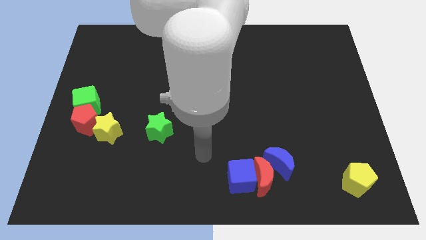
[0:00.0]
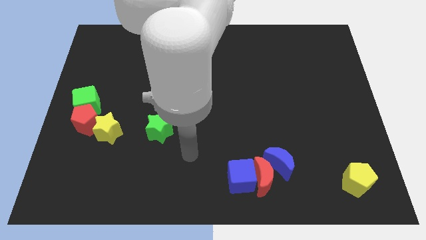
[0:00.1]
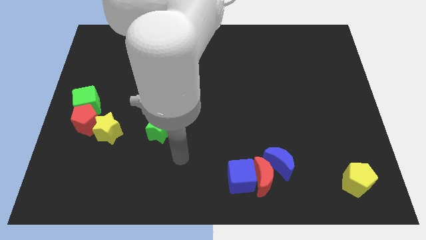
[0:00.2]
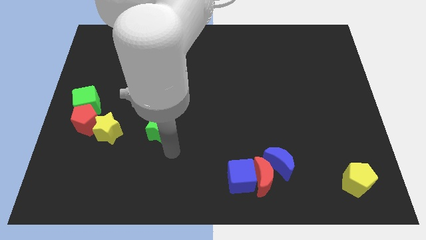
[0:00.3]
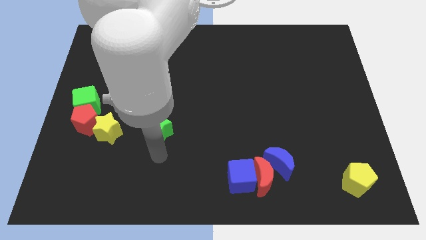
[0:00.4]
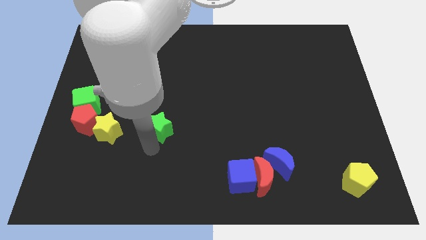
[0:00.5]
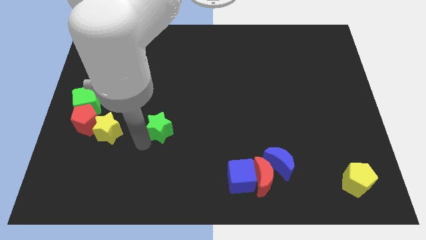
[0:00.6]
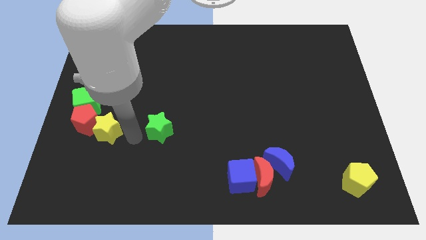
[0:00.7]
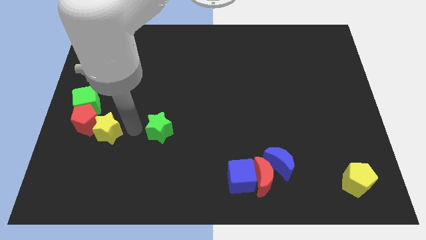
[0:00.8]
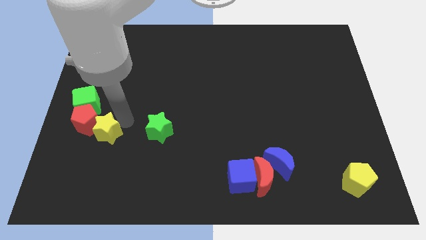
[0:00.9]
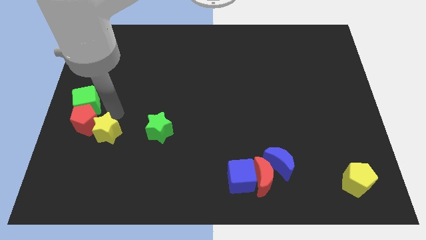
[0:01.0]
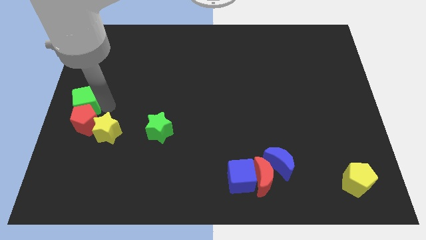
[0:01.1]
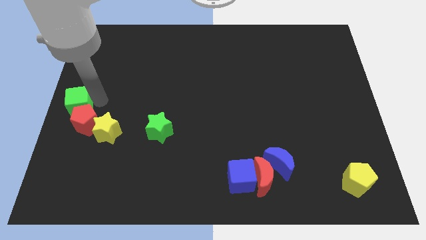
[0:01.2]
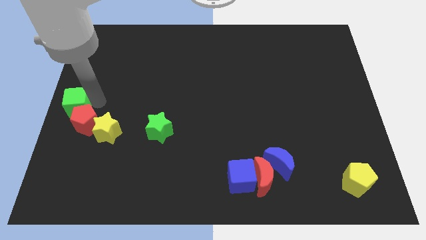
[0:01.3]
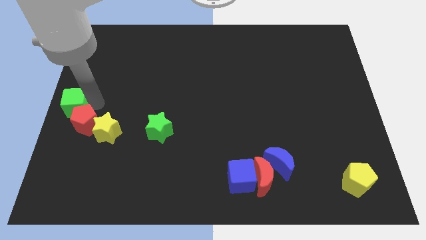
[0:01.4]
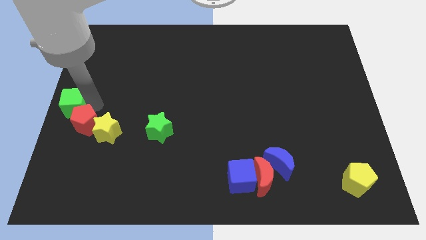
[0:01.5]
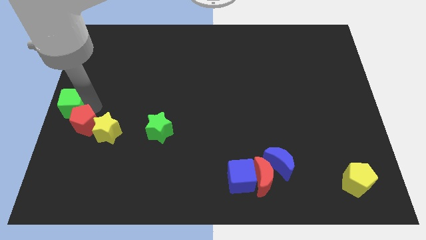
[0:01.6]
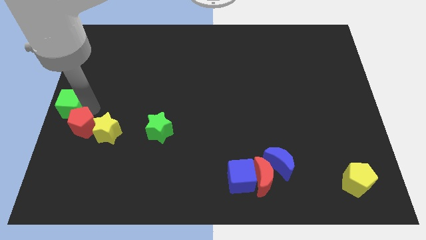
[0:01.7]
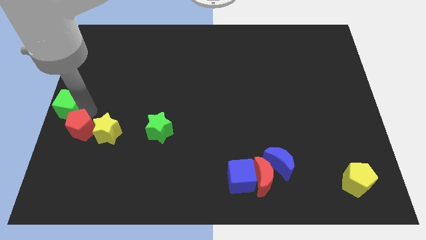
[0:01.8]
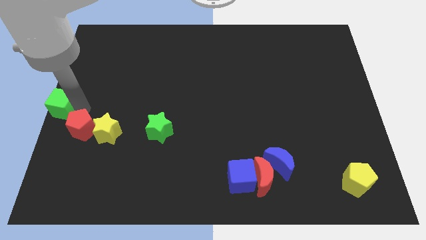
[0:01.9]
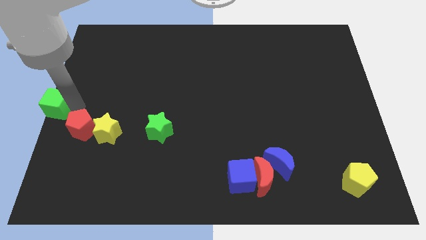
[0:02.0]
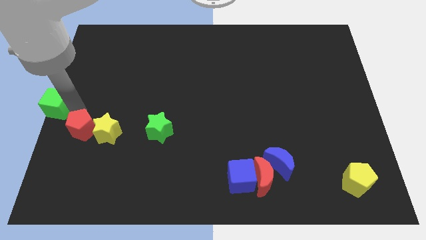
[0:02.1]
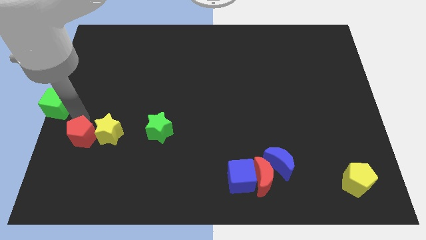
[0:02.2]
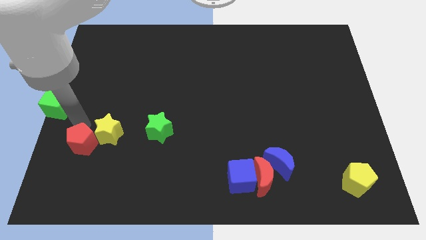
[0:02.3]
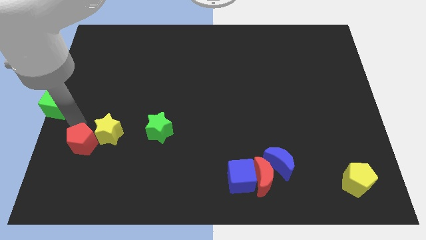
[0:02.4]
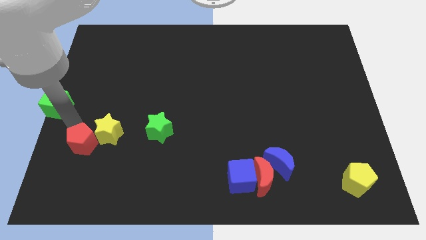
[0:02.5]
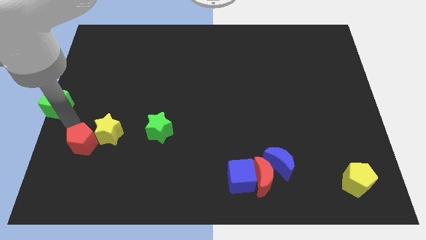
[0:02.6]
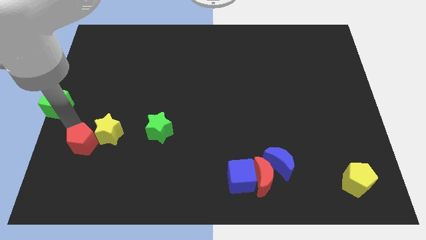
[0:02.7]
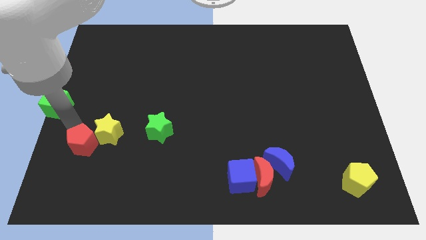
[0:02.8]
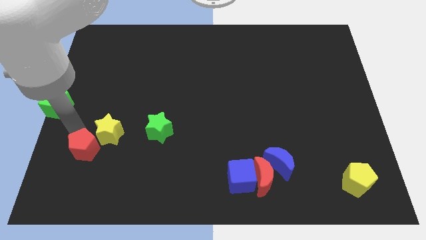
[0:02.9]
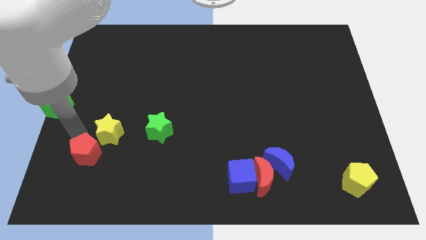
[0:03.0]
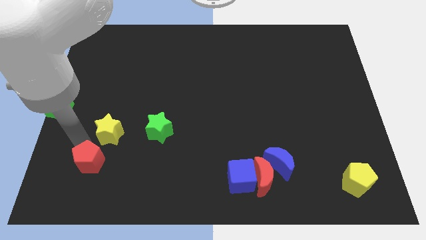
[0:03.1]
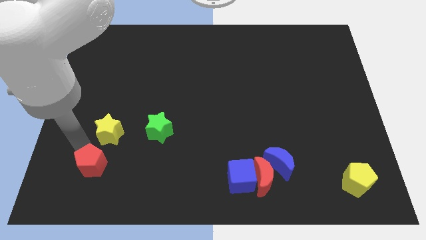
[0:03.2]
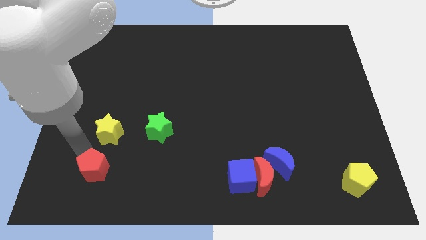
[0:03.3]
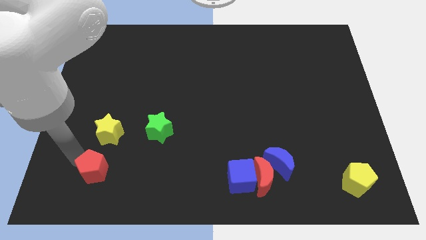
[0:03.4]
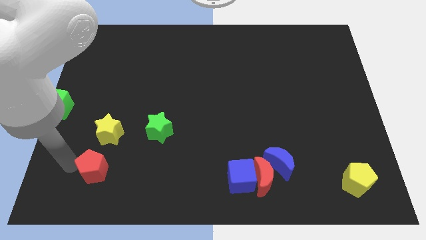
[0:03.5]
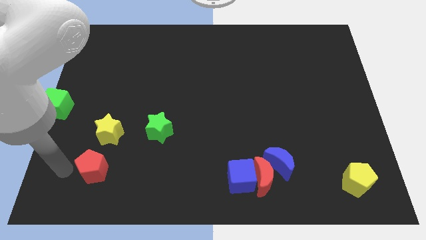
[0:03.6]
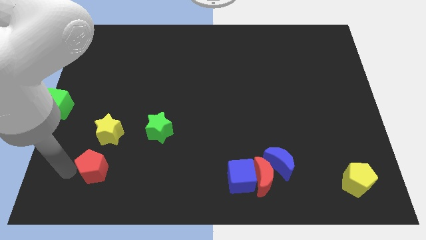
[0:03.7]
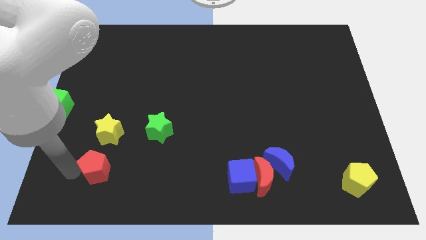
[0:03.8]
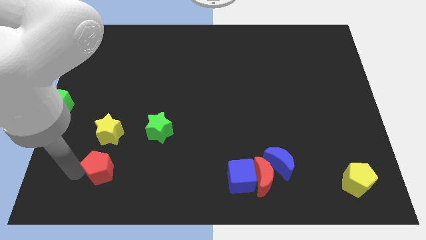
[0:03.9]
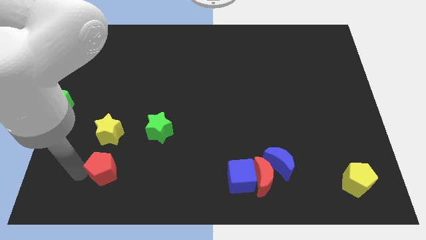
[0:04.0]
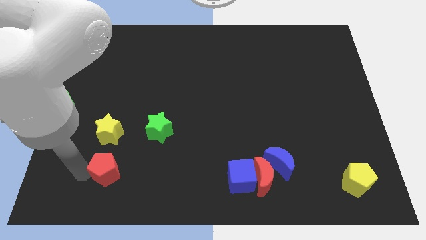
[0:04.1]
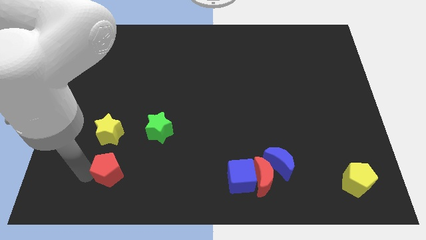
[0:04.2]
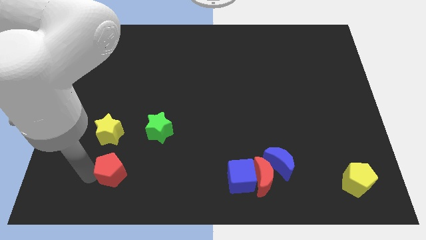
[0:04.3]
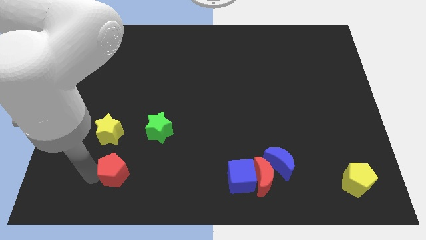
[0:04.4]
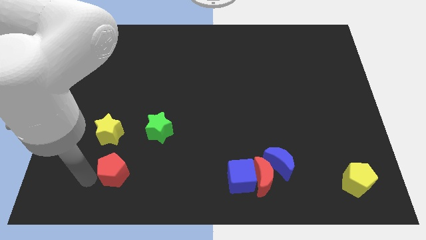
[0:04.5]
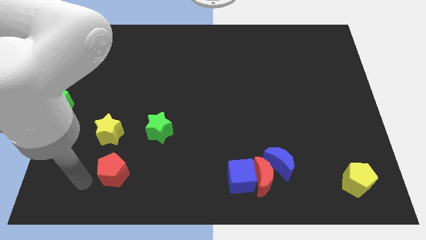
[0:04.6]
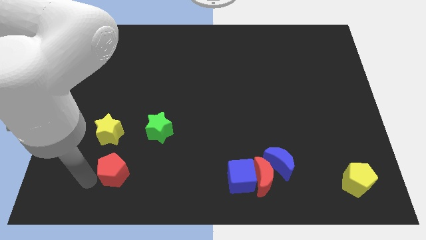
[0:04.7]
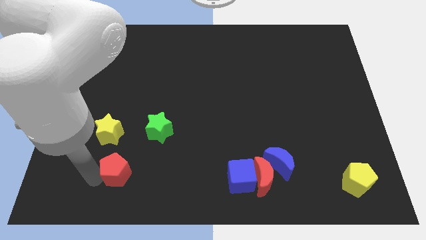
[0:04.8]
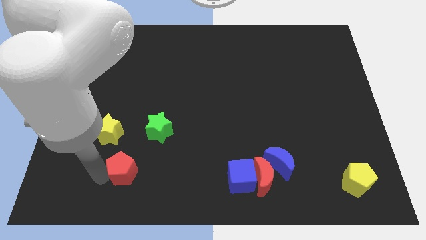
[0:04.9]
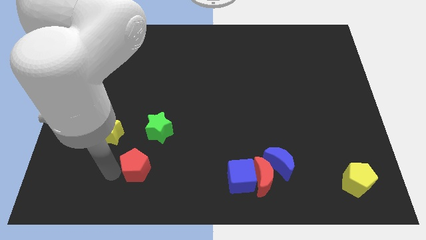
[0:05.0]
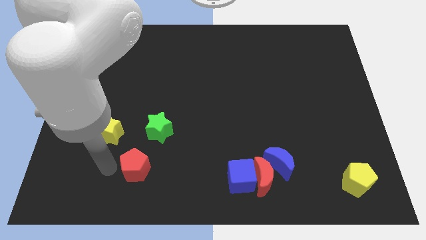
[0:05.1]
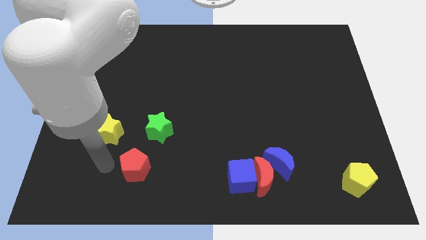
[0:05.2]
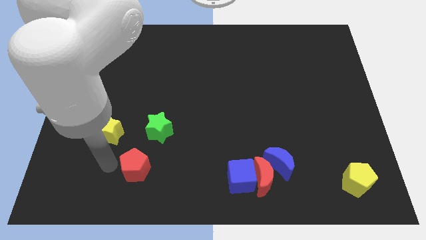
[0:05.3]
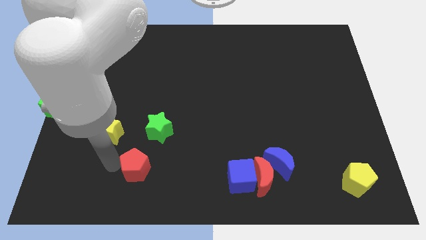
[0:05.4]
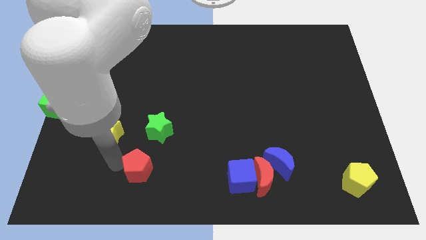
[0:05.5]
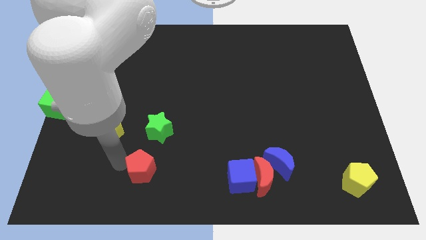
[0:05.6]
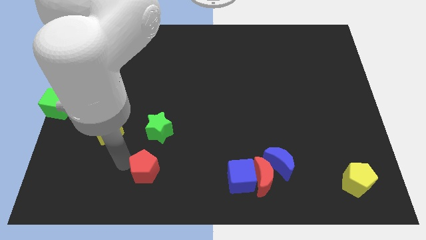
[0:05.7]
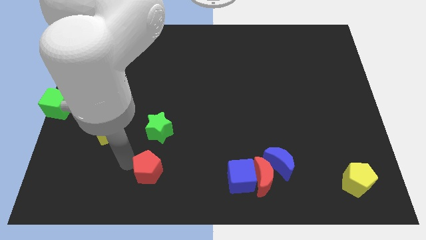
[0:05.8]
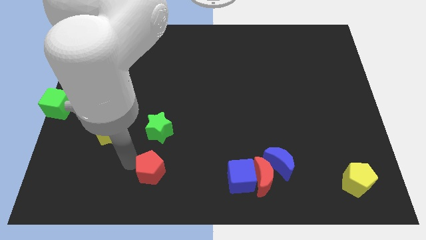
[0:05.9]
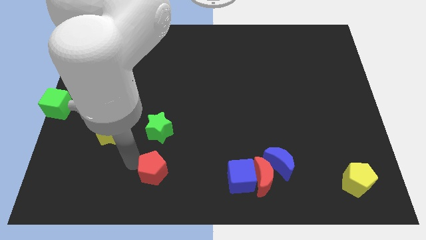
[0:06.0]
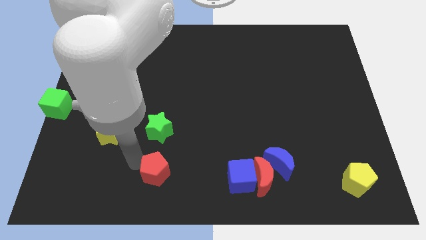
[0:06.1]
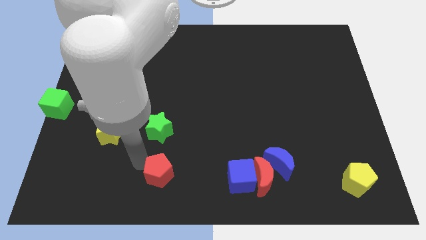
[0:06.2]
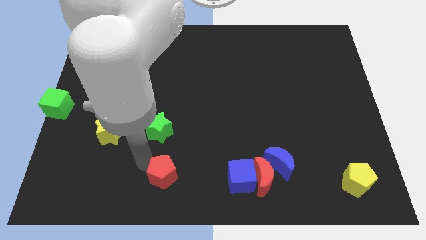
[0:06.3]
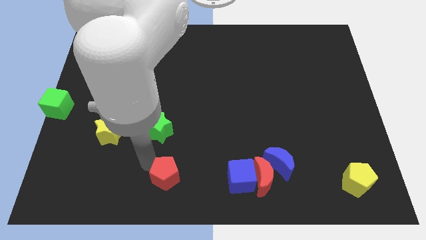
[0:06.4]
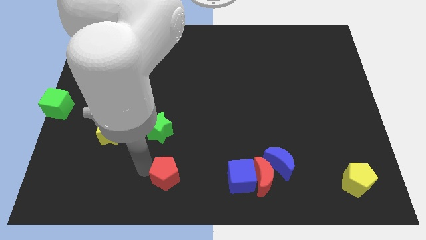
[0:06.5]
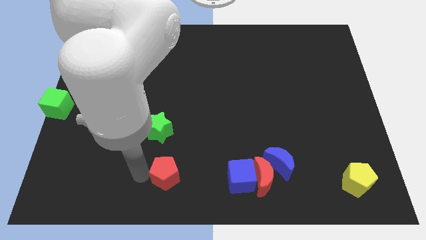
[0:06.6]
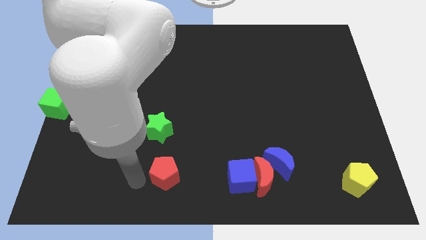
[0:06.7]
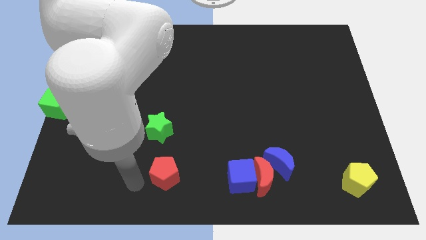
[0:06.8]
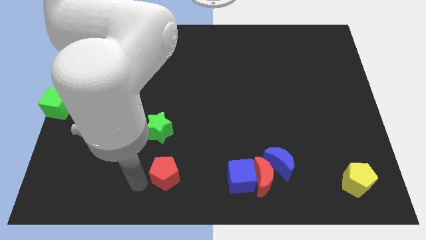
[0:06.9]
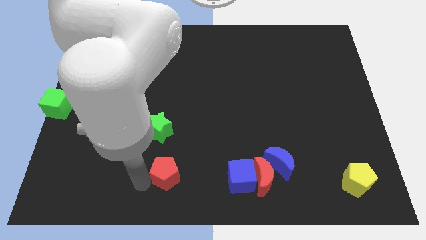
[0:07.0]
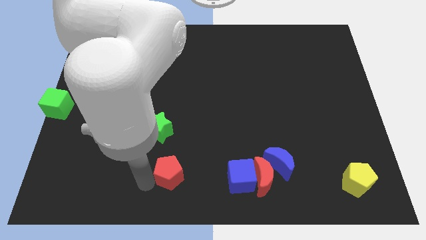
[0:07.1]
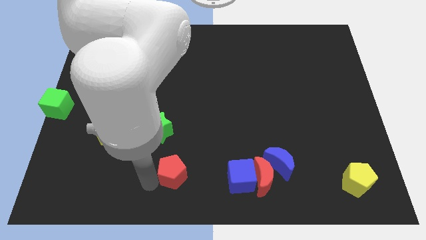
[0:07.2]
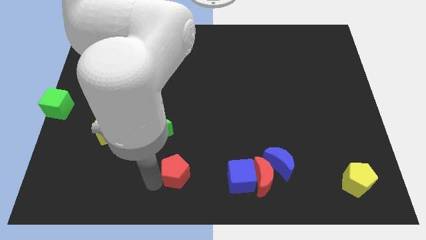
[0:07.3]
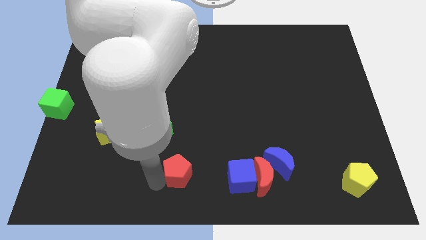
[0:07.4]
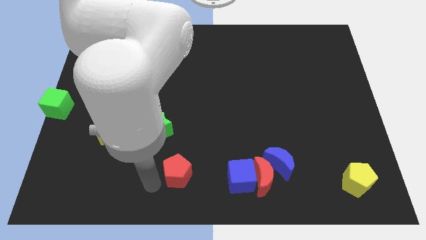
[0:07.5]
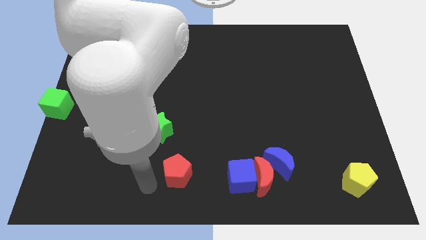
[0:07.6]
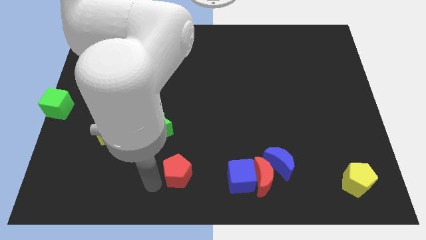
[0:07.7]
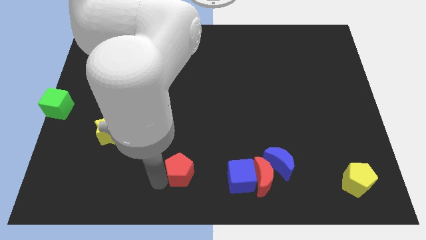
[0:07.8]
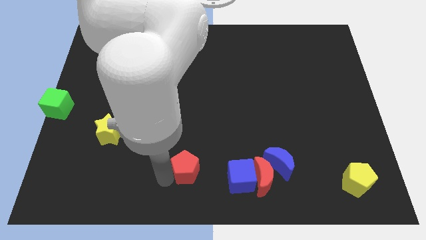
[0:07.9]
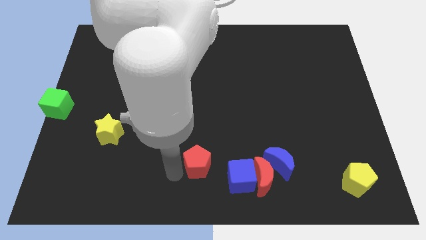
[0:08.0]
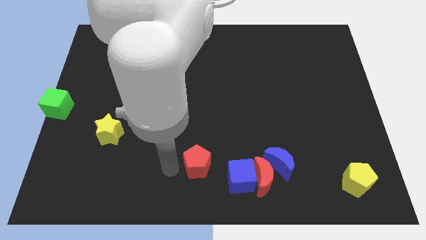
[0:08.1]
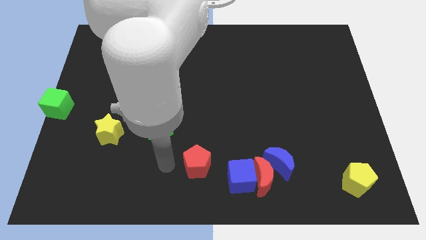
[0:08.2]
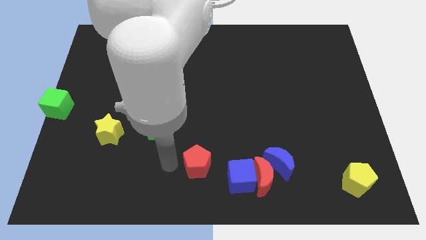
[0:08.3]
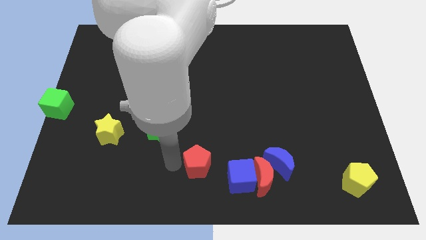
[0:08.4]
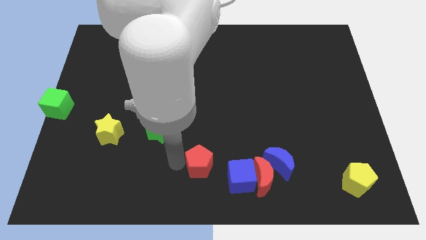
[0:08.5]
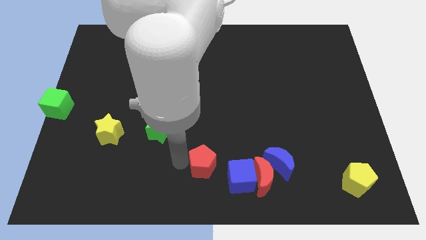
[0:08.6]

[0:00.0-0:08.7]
move the red pentagon to the left side of the blue moon
